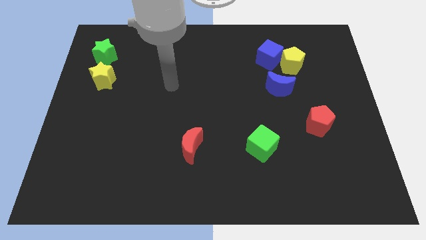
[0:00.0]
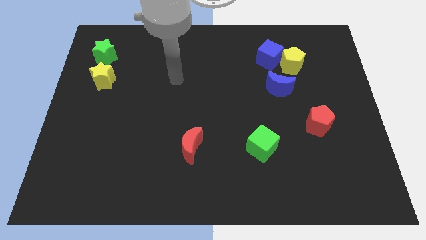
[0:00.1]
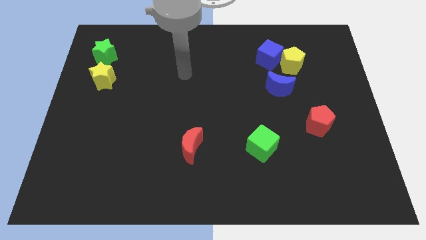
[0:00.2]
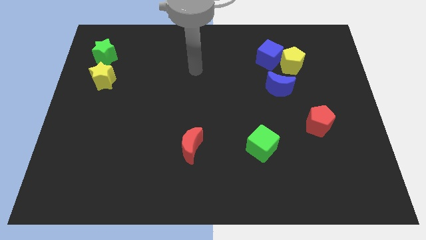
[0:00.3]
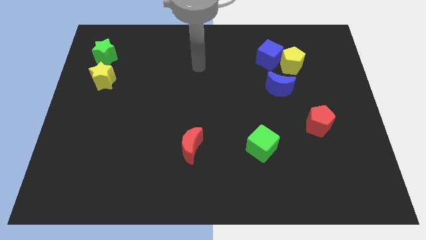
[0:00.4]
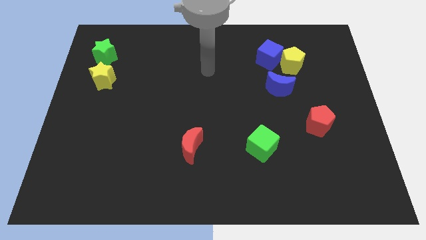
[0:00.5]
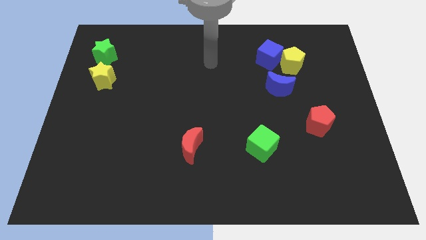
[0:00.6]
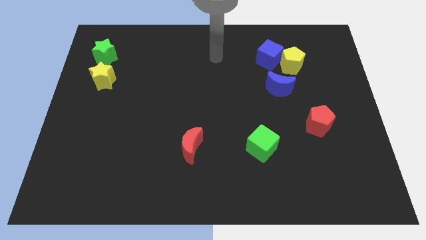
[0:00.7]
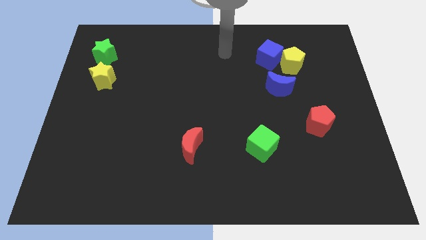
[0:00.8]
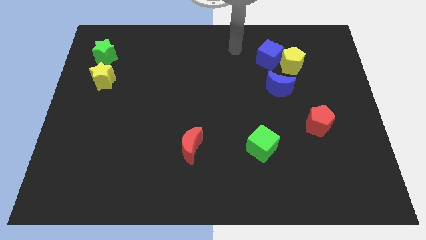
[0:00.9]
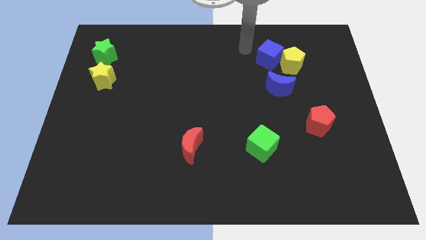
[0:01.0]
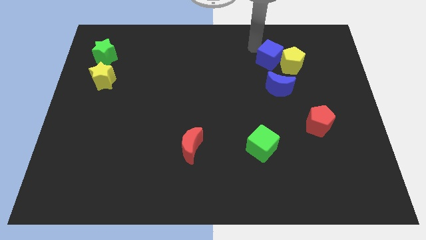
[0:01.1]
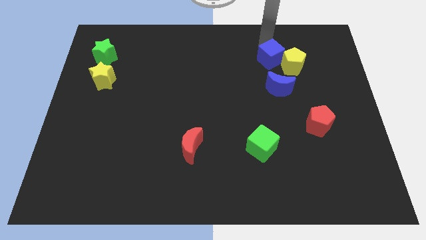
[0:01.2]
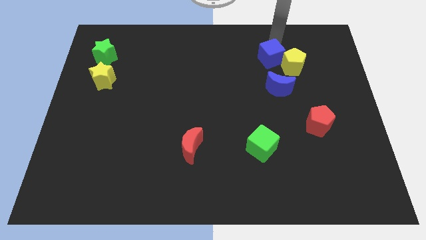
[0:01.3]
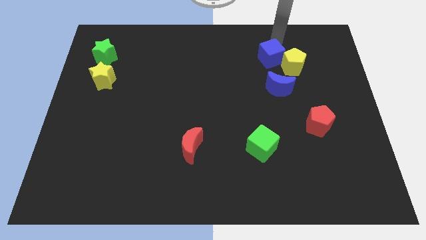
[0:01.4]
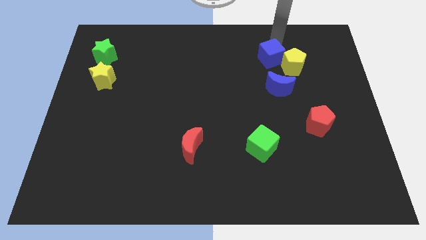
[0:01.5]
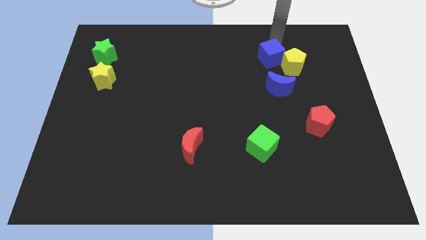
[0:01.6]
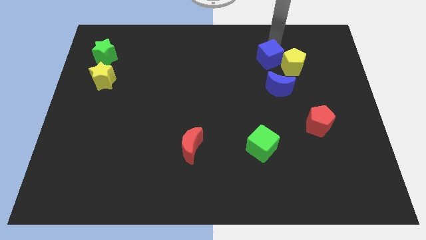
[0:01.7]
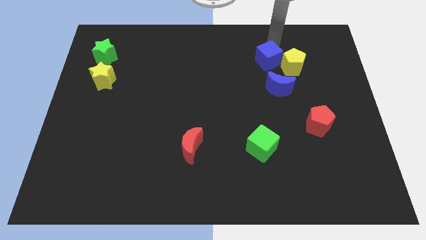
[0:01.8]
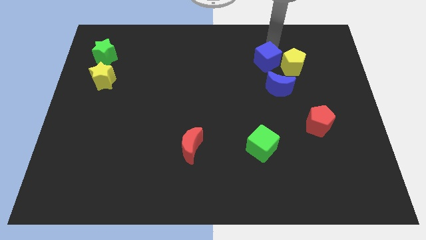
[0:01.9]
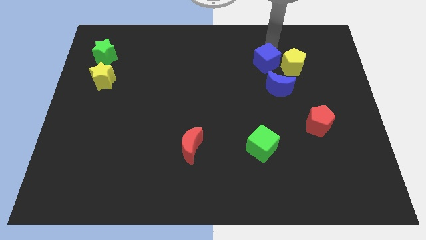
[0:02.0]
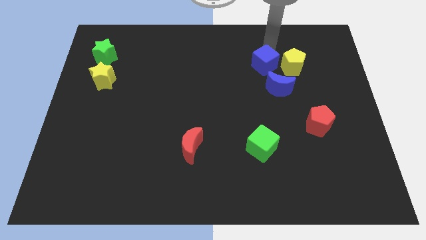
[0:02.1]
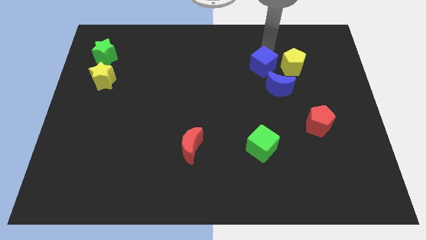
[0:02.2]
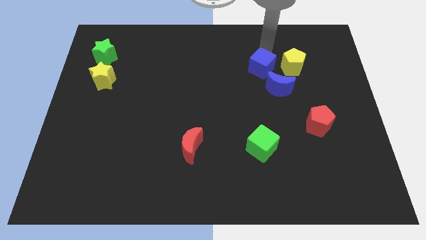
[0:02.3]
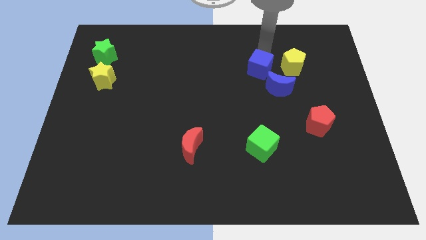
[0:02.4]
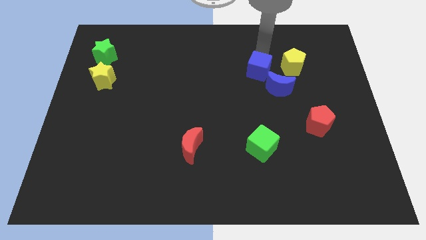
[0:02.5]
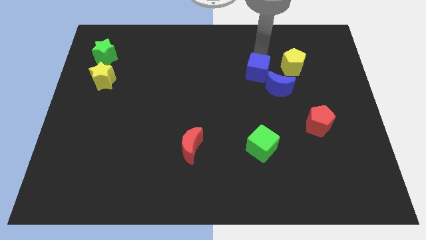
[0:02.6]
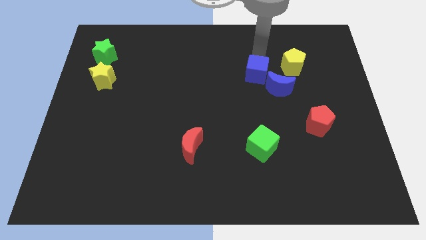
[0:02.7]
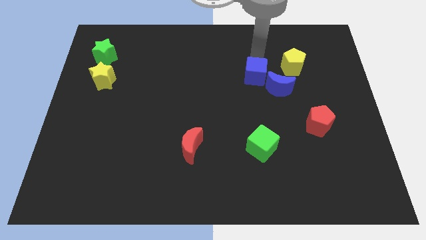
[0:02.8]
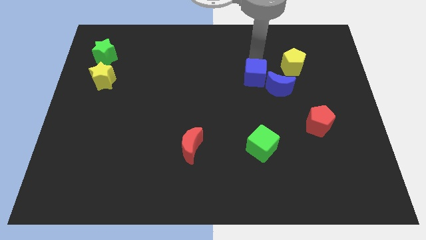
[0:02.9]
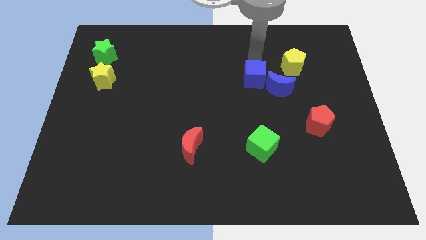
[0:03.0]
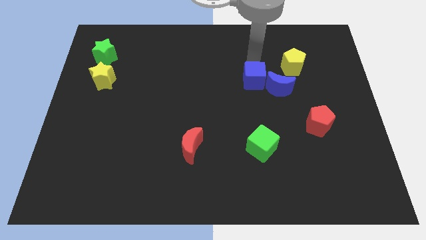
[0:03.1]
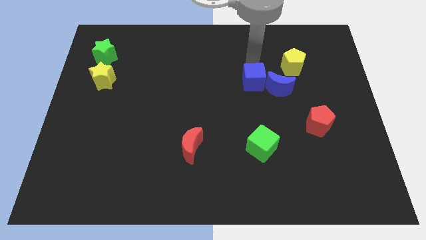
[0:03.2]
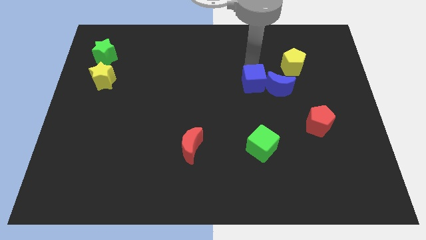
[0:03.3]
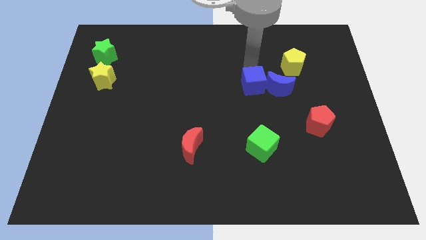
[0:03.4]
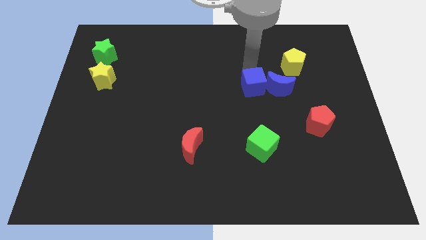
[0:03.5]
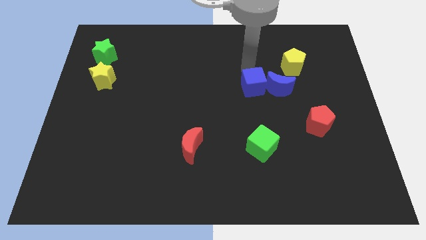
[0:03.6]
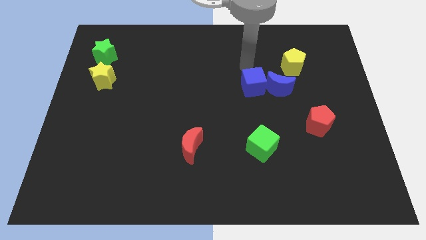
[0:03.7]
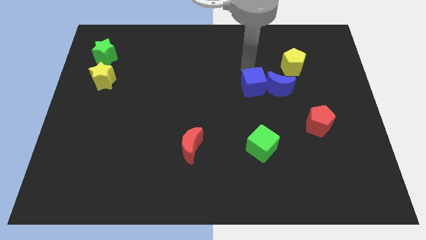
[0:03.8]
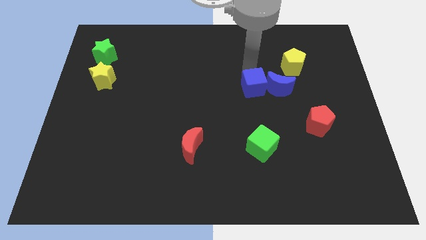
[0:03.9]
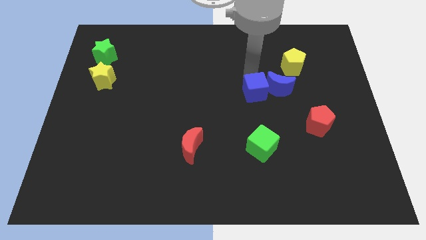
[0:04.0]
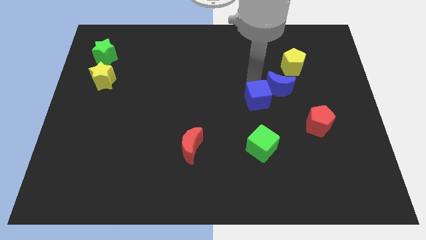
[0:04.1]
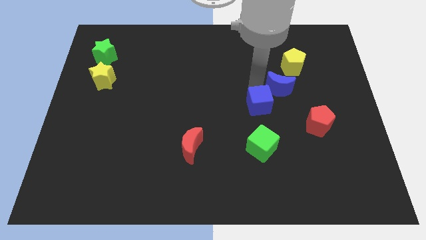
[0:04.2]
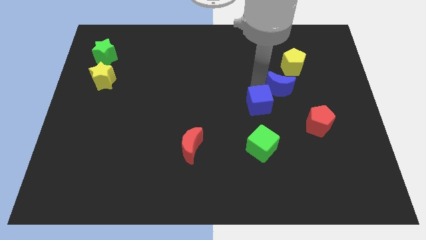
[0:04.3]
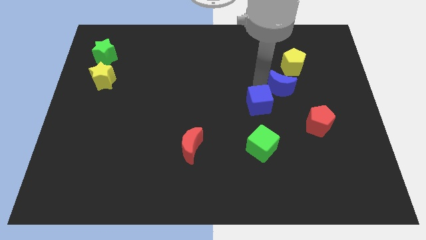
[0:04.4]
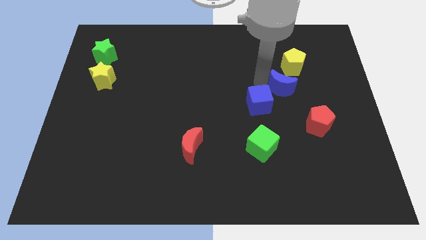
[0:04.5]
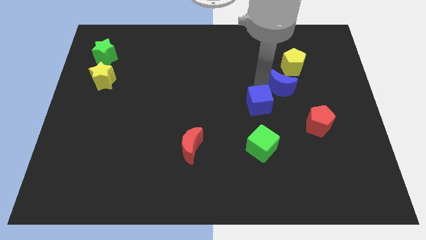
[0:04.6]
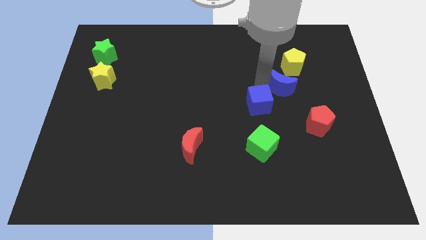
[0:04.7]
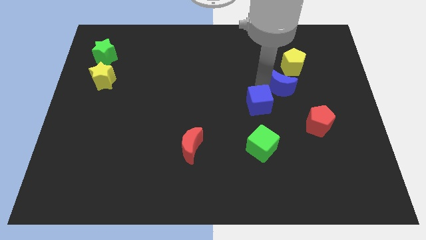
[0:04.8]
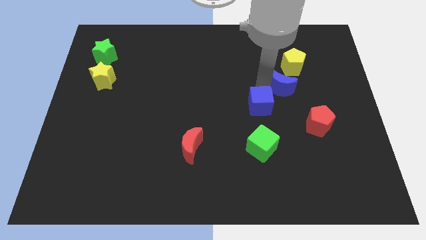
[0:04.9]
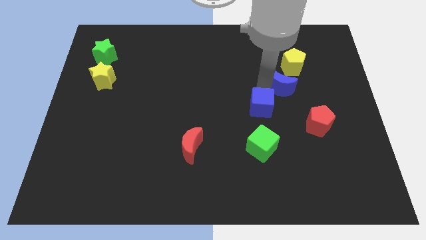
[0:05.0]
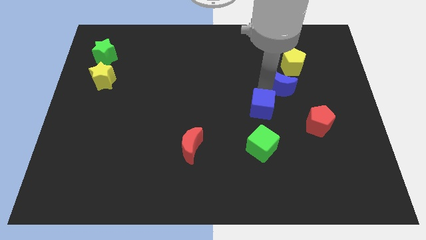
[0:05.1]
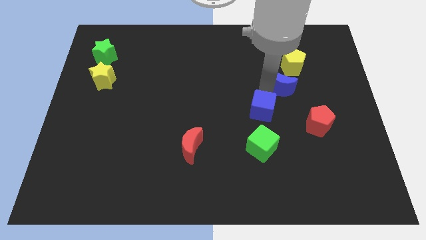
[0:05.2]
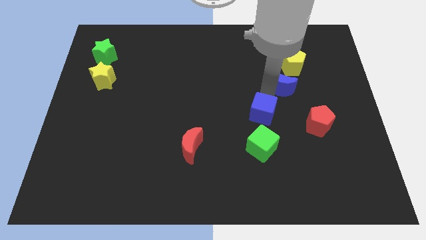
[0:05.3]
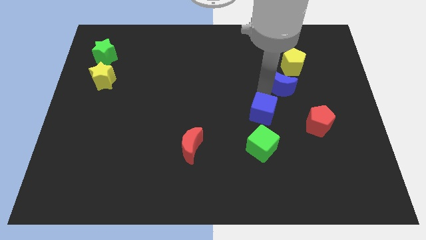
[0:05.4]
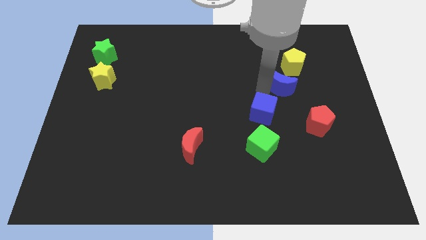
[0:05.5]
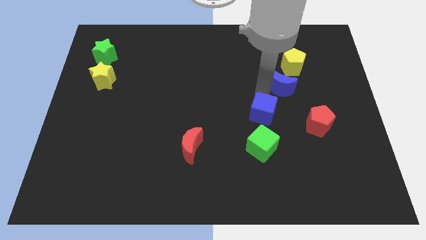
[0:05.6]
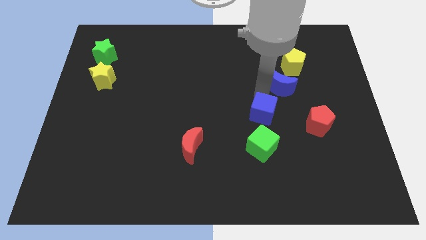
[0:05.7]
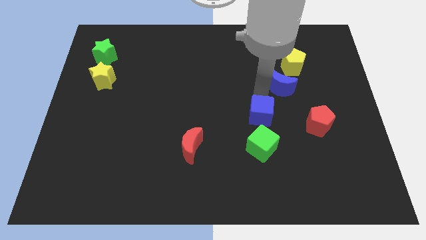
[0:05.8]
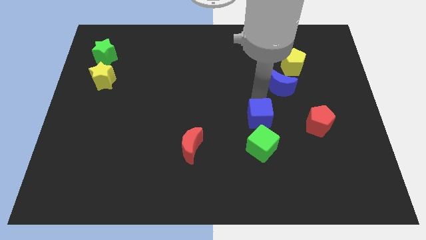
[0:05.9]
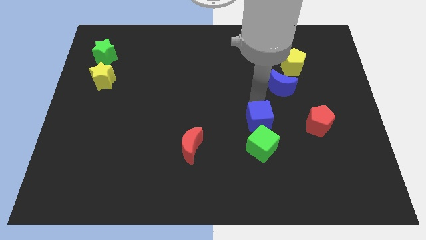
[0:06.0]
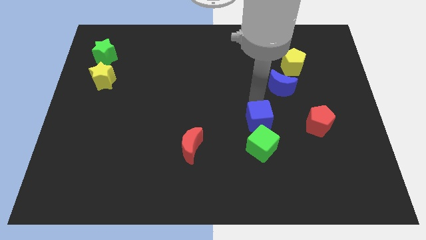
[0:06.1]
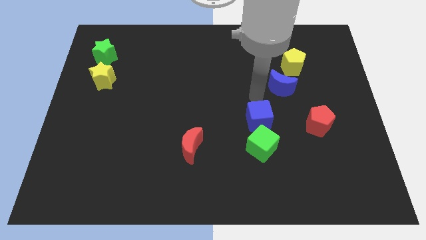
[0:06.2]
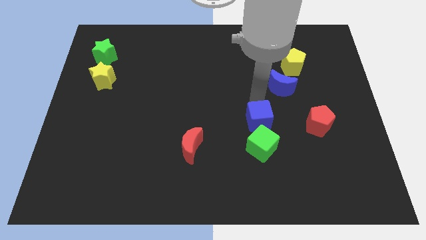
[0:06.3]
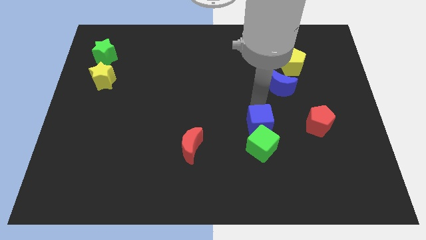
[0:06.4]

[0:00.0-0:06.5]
move the blue cube close to the green cube
